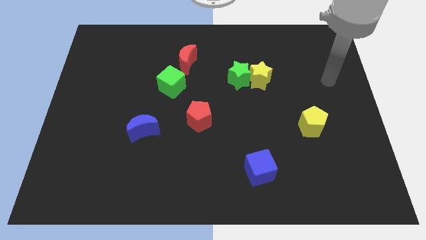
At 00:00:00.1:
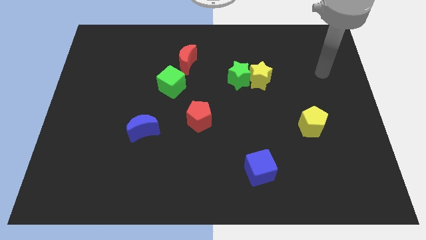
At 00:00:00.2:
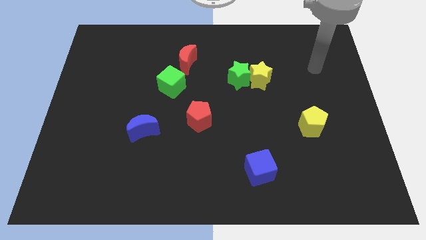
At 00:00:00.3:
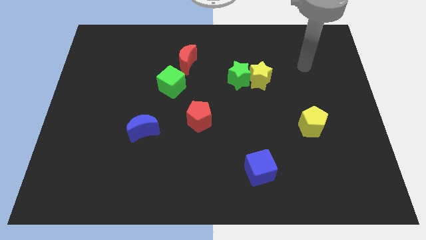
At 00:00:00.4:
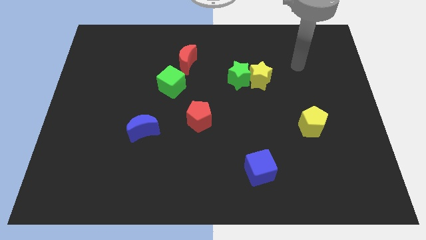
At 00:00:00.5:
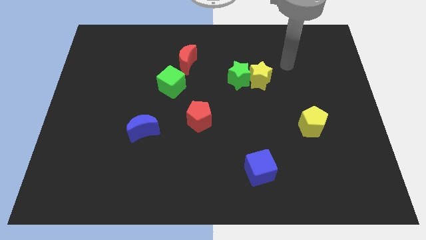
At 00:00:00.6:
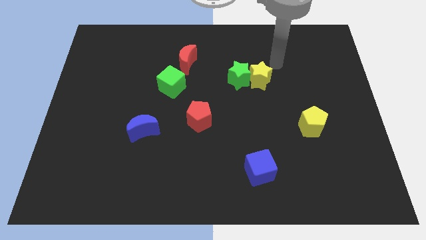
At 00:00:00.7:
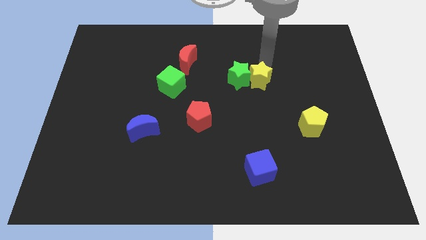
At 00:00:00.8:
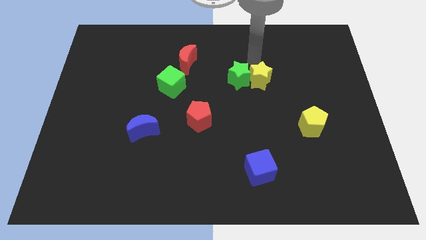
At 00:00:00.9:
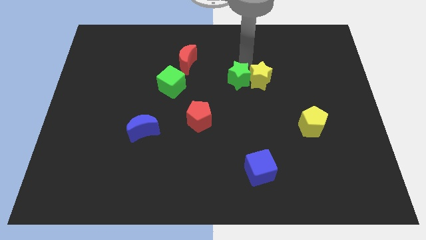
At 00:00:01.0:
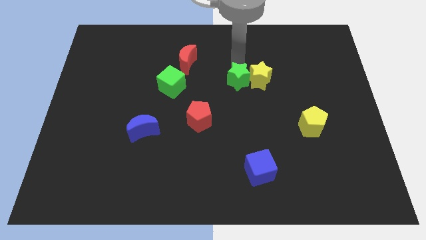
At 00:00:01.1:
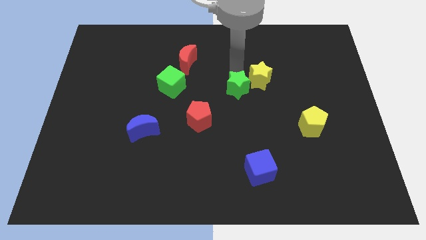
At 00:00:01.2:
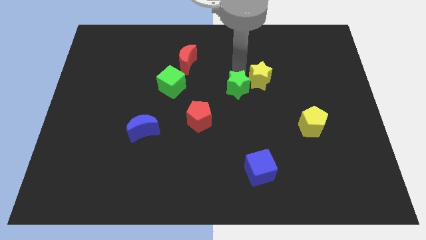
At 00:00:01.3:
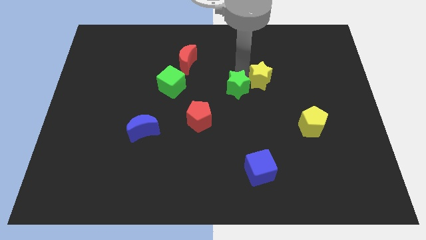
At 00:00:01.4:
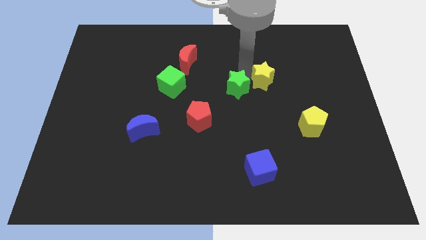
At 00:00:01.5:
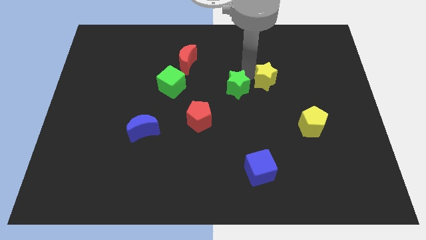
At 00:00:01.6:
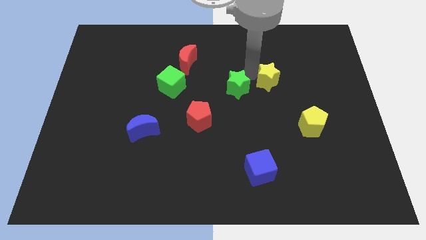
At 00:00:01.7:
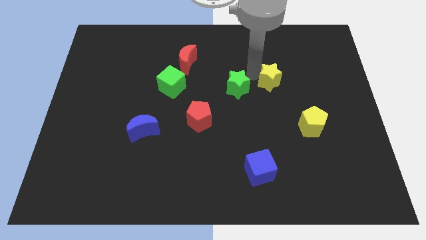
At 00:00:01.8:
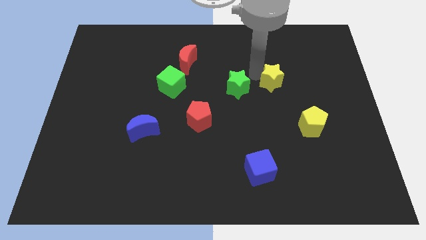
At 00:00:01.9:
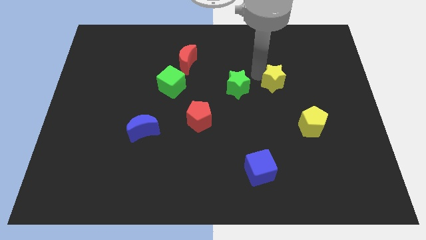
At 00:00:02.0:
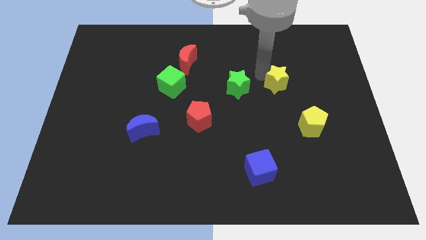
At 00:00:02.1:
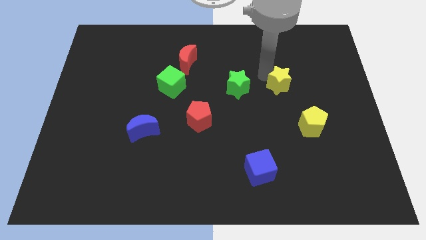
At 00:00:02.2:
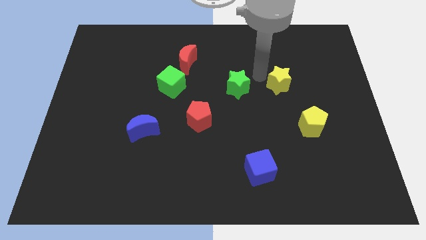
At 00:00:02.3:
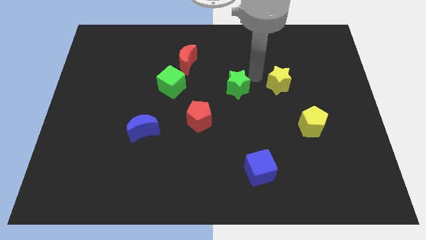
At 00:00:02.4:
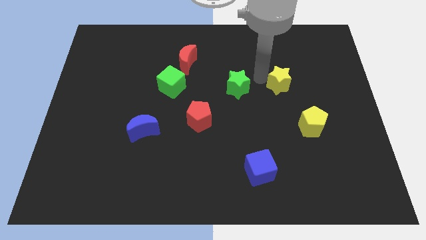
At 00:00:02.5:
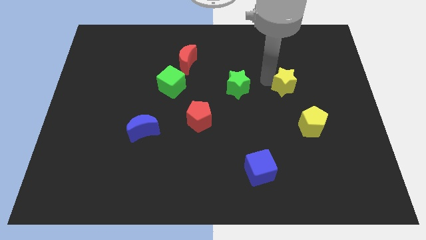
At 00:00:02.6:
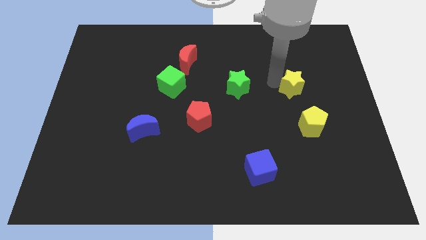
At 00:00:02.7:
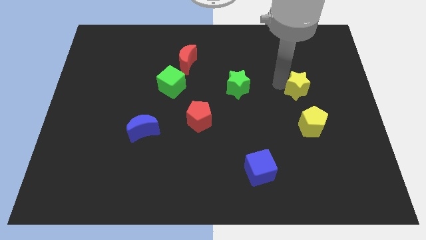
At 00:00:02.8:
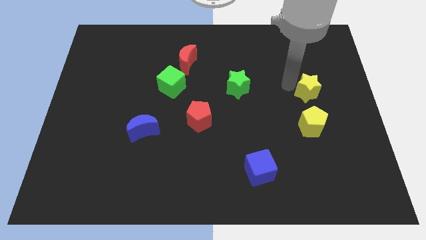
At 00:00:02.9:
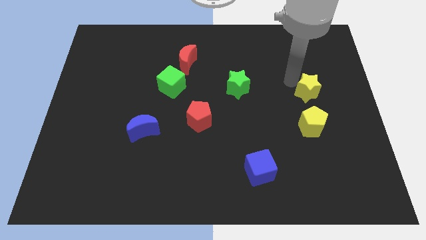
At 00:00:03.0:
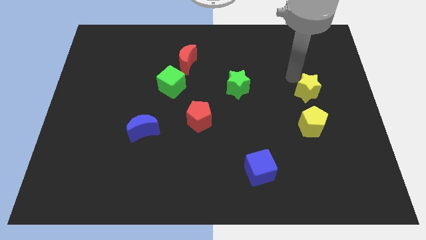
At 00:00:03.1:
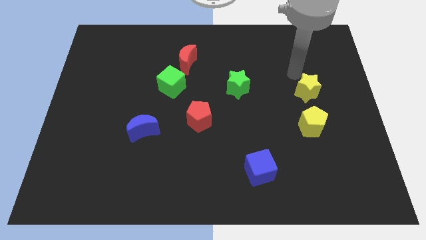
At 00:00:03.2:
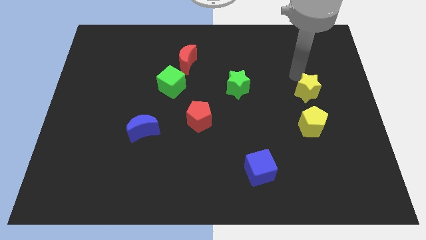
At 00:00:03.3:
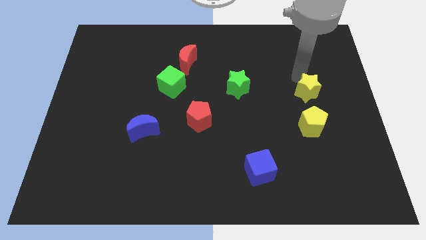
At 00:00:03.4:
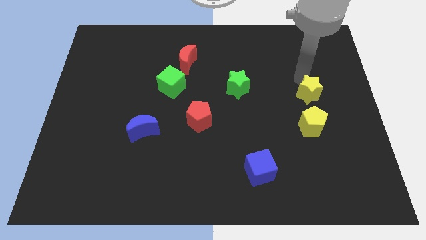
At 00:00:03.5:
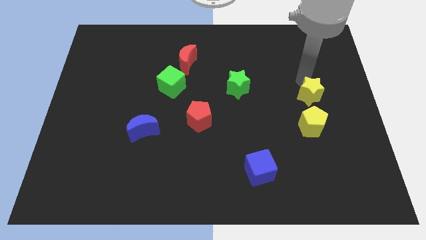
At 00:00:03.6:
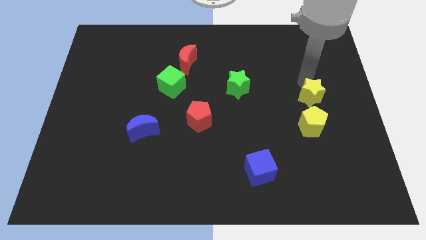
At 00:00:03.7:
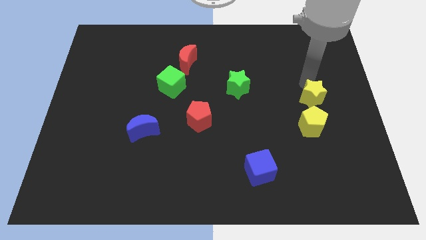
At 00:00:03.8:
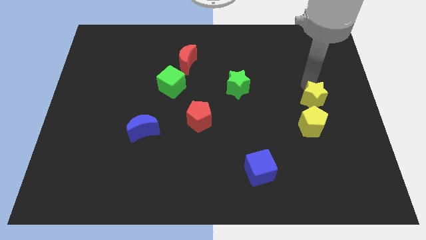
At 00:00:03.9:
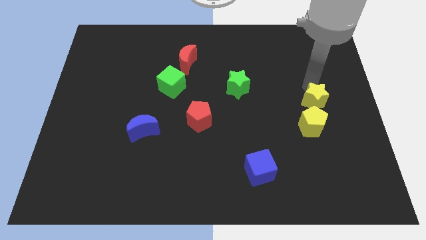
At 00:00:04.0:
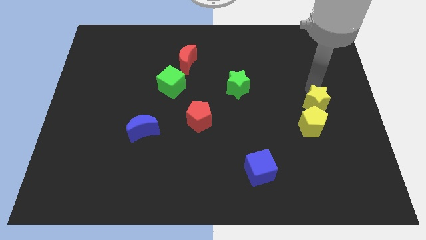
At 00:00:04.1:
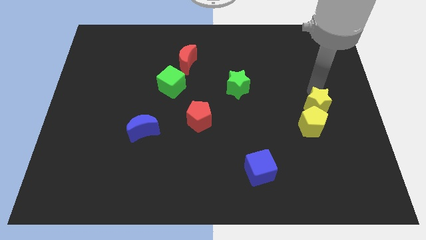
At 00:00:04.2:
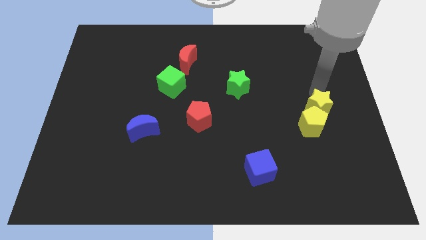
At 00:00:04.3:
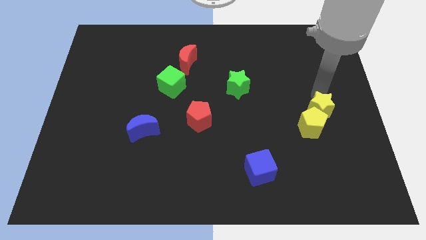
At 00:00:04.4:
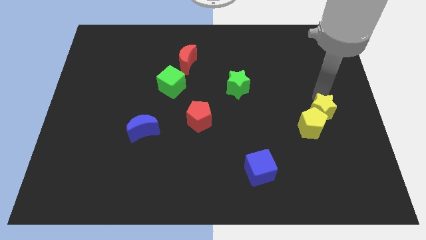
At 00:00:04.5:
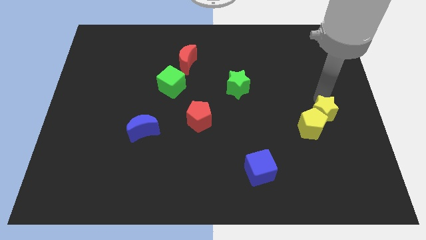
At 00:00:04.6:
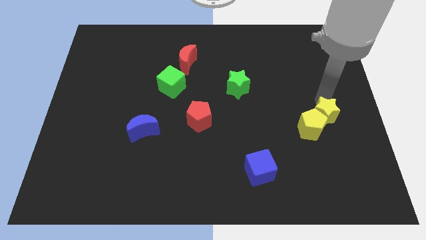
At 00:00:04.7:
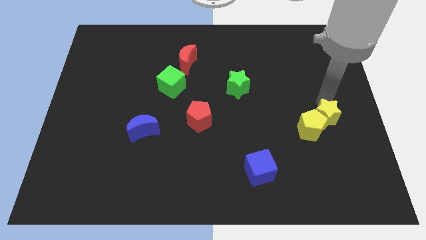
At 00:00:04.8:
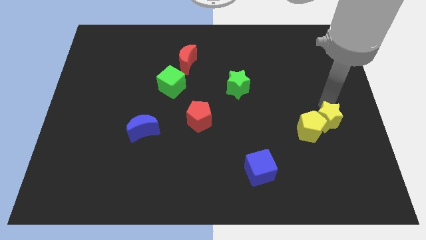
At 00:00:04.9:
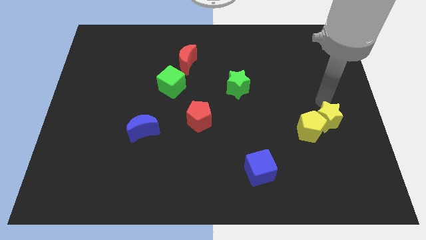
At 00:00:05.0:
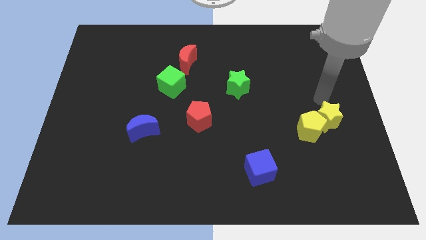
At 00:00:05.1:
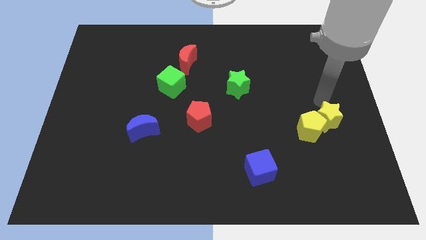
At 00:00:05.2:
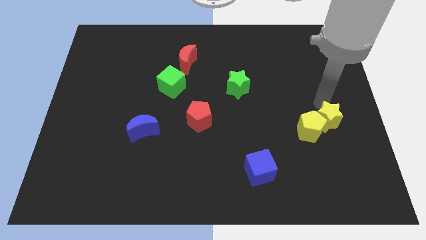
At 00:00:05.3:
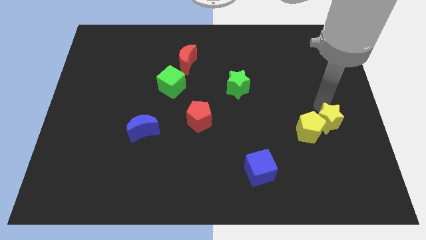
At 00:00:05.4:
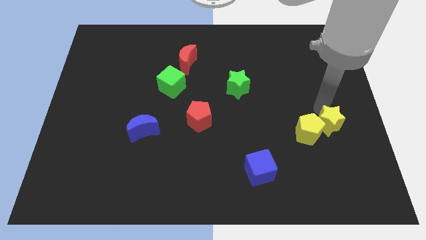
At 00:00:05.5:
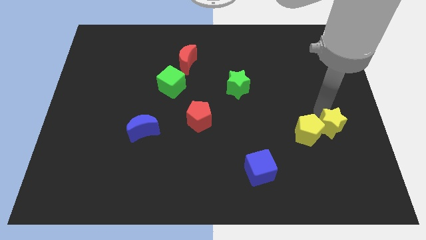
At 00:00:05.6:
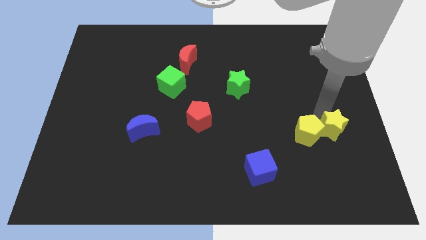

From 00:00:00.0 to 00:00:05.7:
slide the yellow star to the bottom right of the yellow pentagon
